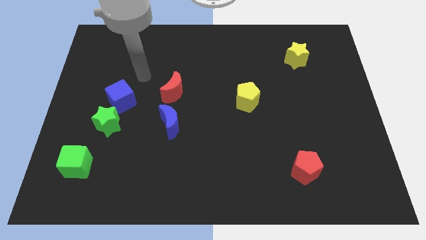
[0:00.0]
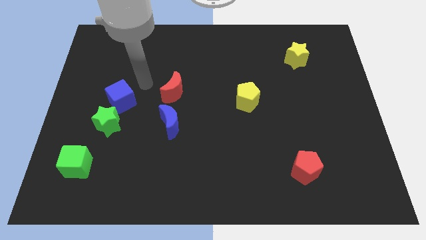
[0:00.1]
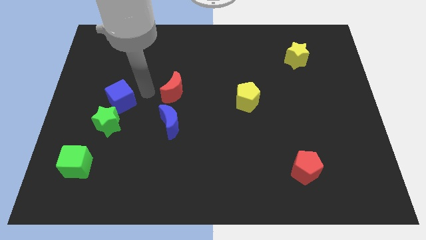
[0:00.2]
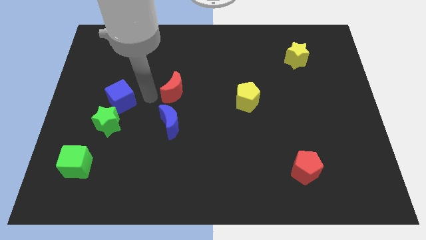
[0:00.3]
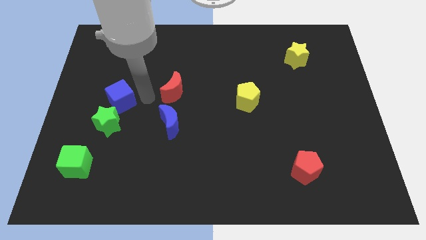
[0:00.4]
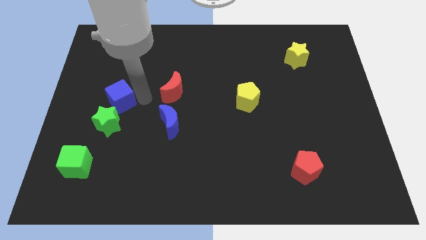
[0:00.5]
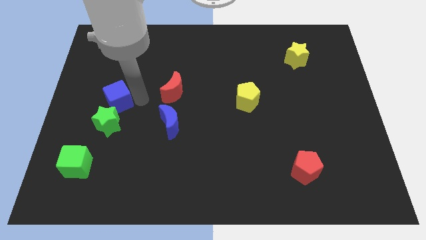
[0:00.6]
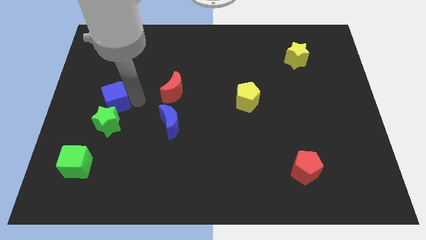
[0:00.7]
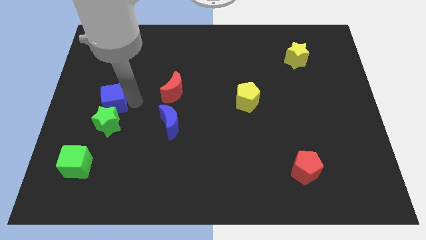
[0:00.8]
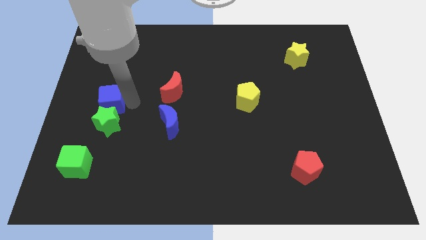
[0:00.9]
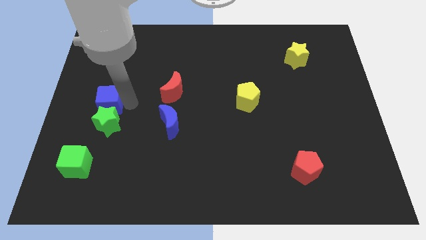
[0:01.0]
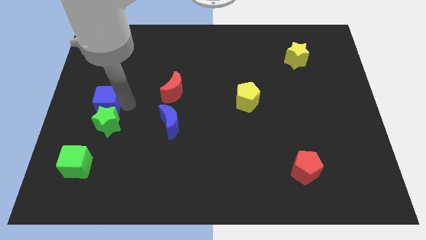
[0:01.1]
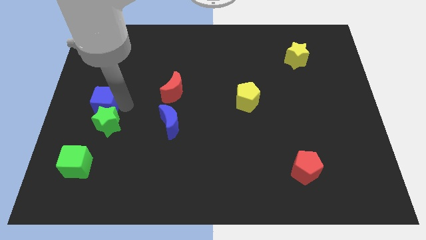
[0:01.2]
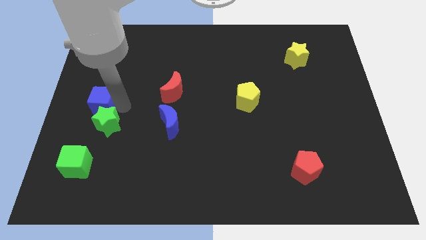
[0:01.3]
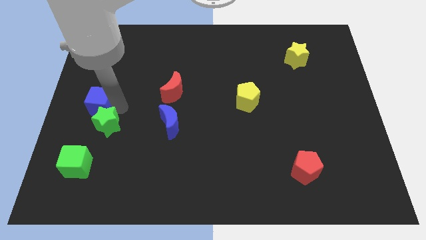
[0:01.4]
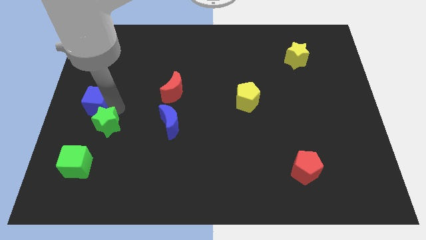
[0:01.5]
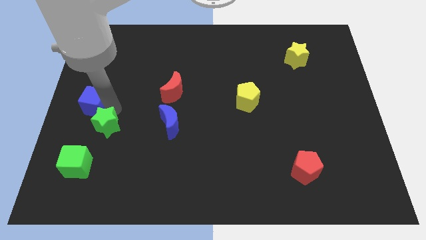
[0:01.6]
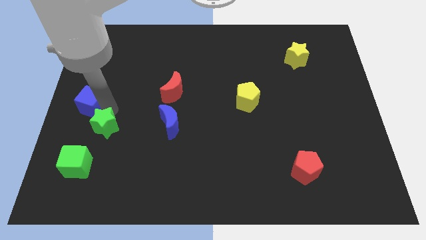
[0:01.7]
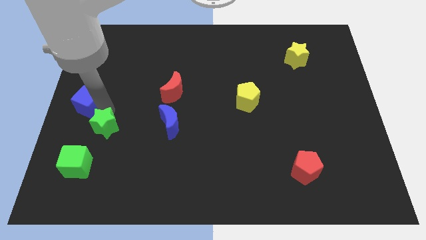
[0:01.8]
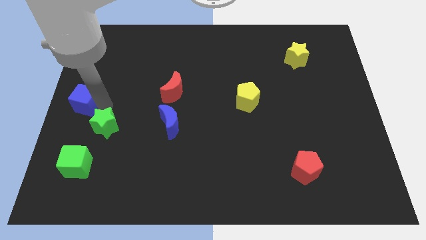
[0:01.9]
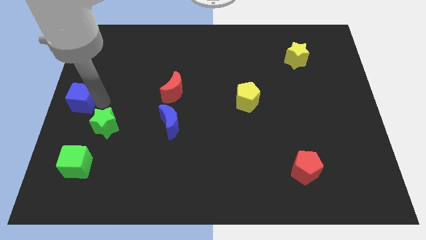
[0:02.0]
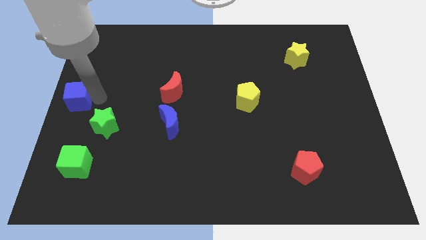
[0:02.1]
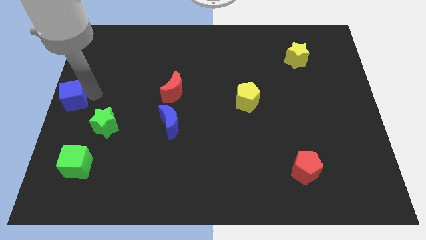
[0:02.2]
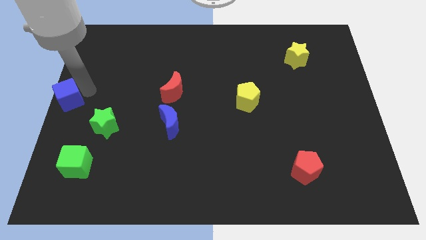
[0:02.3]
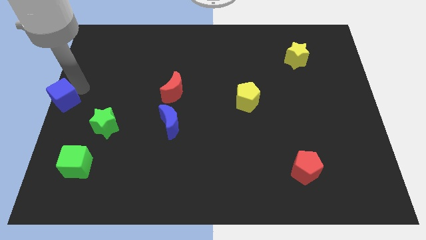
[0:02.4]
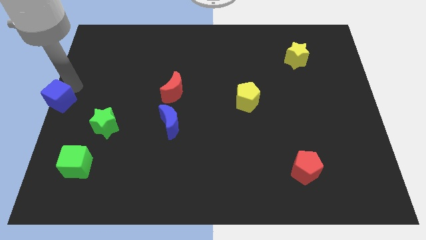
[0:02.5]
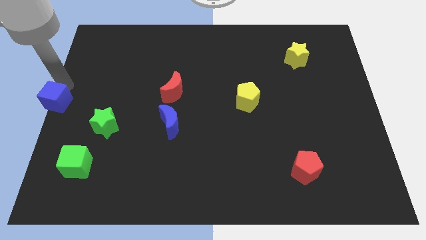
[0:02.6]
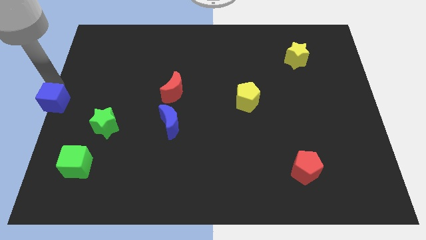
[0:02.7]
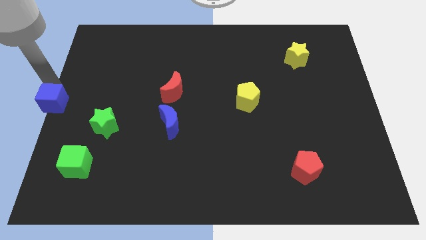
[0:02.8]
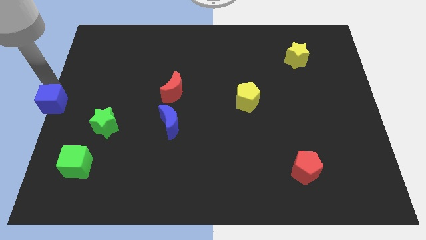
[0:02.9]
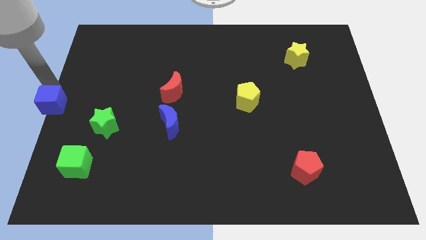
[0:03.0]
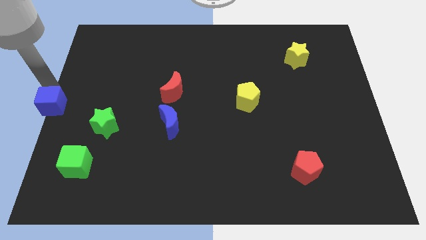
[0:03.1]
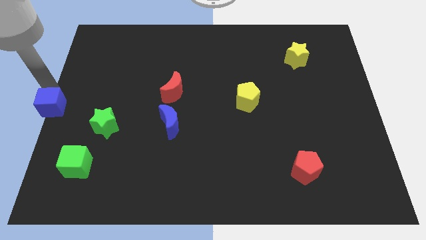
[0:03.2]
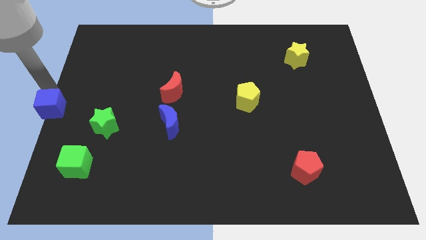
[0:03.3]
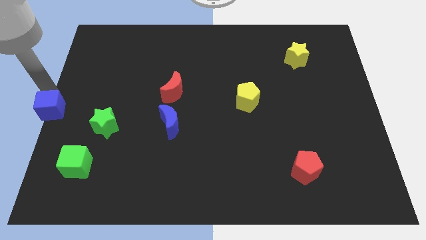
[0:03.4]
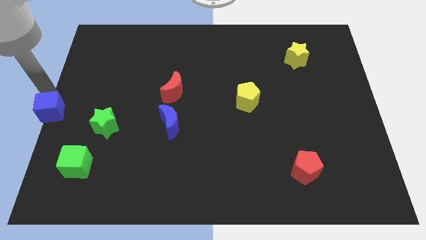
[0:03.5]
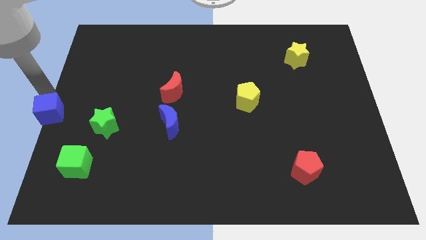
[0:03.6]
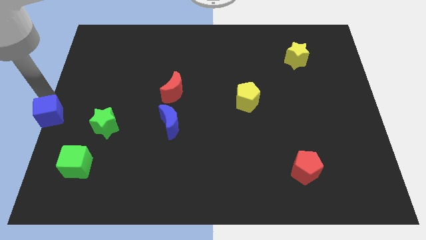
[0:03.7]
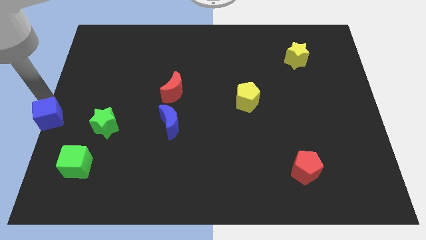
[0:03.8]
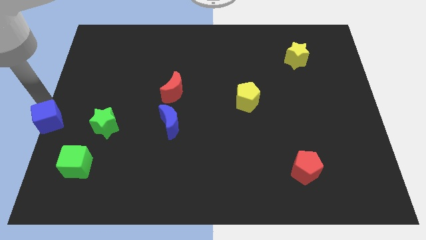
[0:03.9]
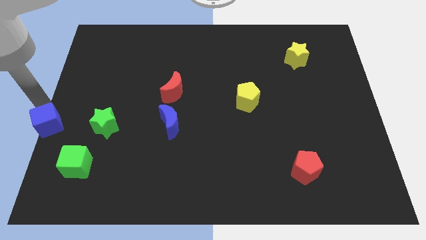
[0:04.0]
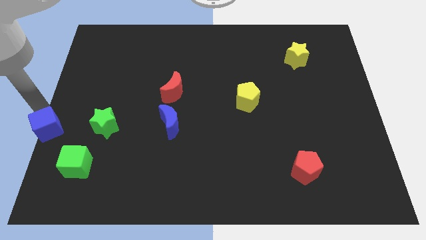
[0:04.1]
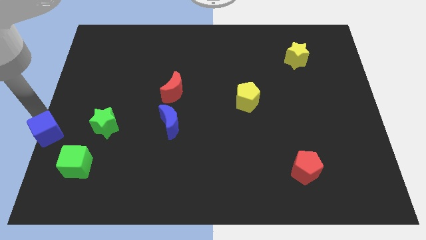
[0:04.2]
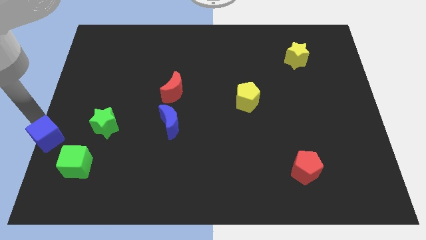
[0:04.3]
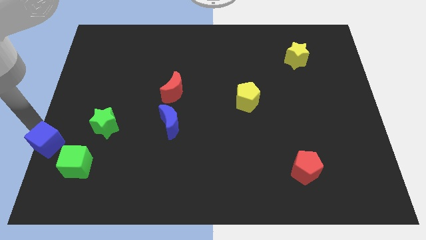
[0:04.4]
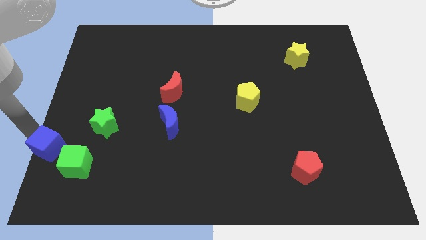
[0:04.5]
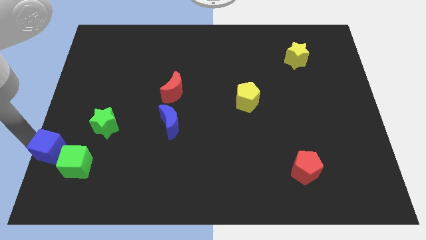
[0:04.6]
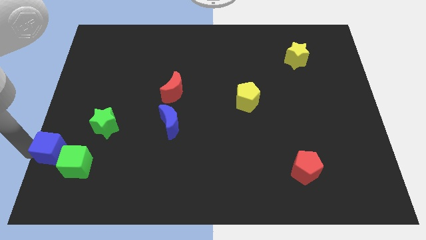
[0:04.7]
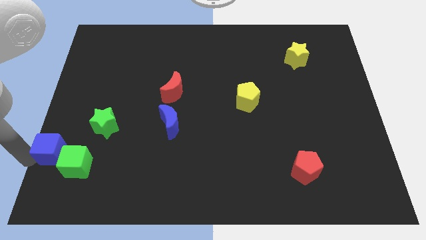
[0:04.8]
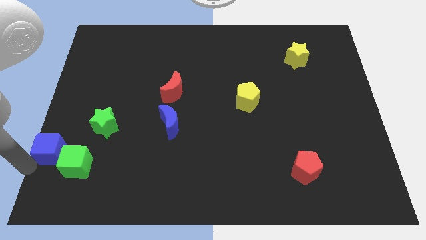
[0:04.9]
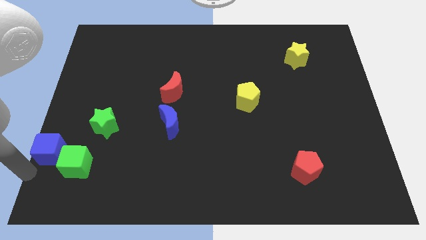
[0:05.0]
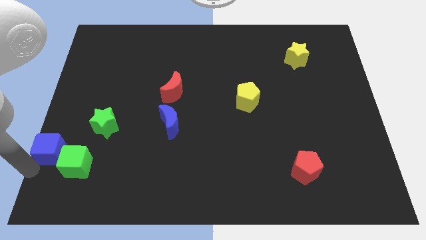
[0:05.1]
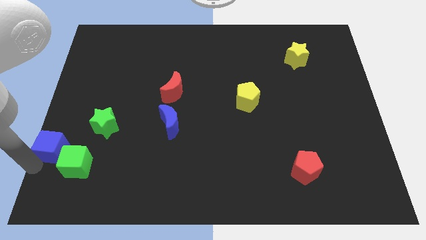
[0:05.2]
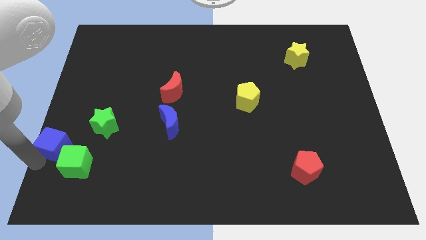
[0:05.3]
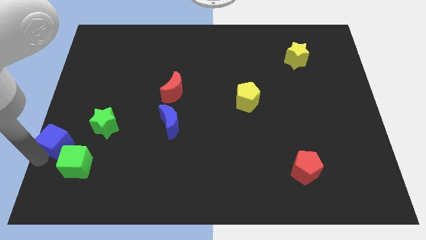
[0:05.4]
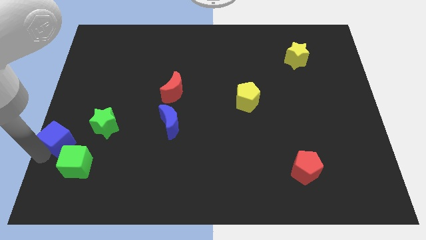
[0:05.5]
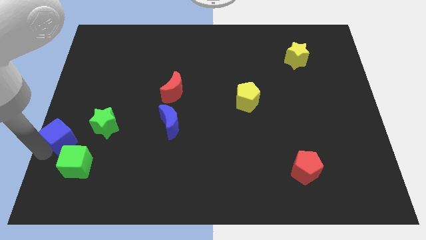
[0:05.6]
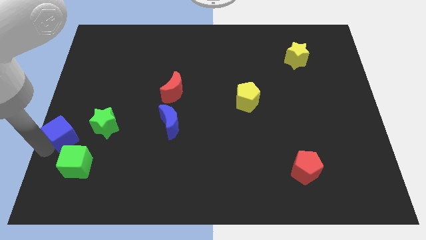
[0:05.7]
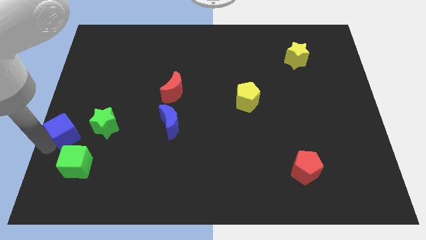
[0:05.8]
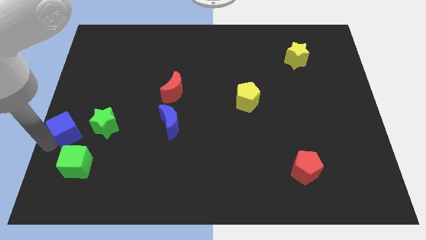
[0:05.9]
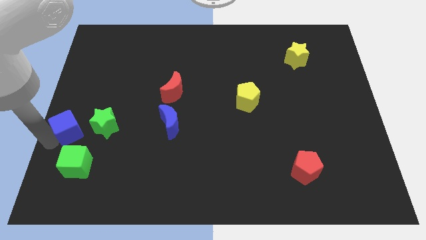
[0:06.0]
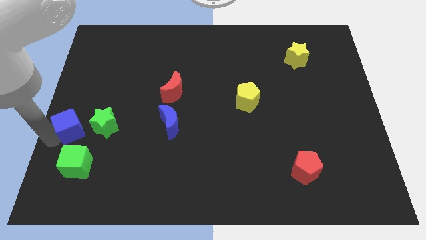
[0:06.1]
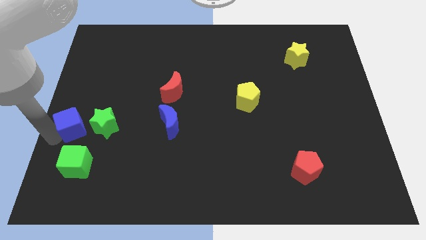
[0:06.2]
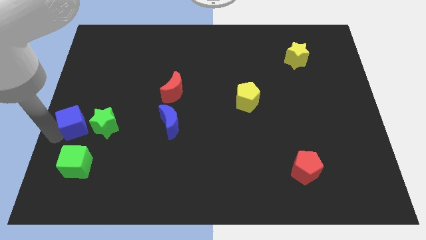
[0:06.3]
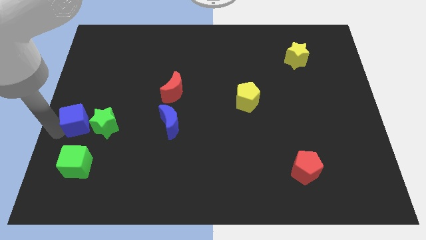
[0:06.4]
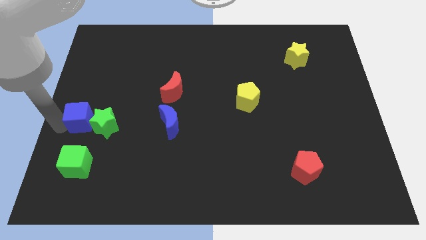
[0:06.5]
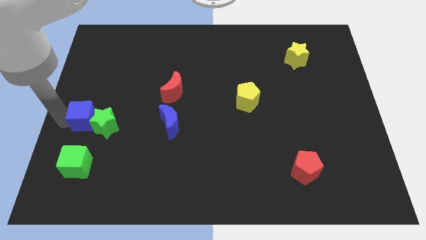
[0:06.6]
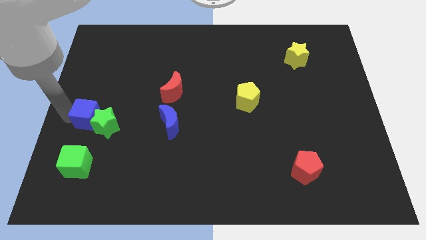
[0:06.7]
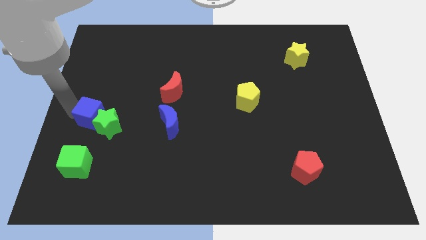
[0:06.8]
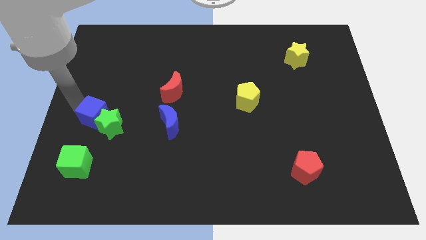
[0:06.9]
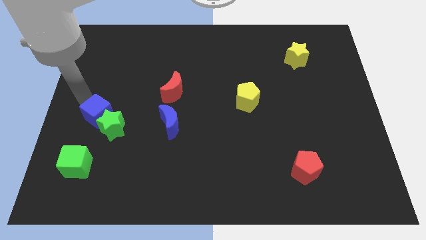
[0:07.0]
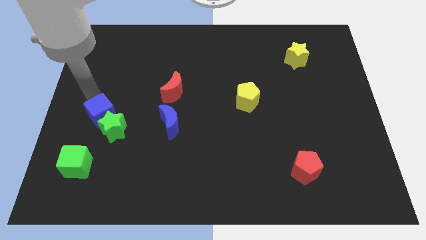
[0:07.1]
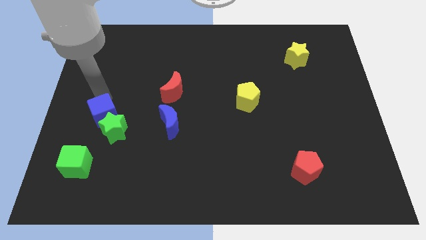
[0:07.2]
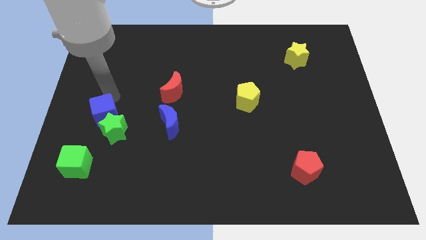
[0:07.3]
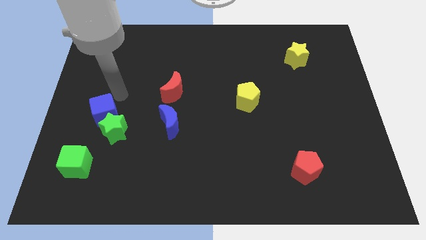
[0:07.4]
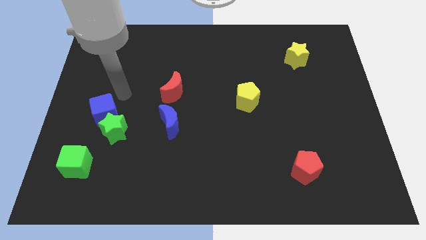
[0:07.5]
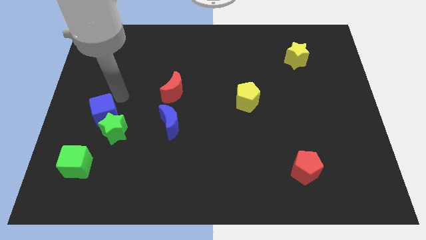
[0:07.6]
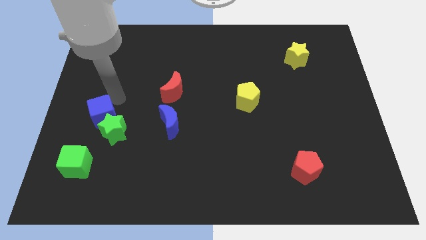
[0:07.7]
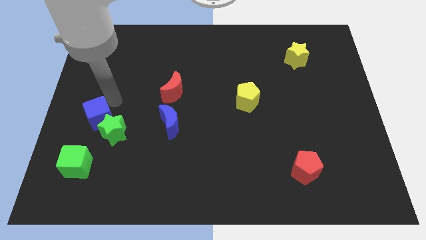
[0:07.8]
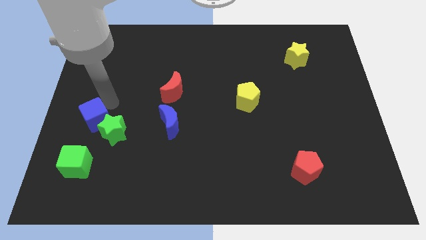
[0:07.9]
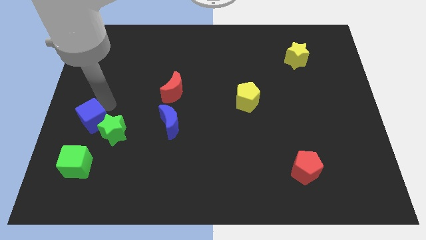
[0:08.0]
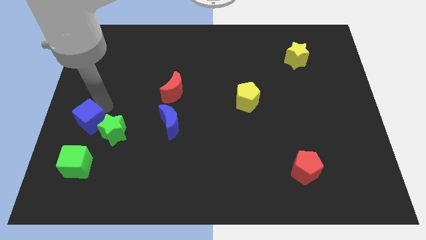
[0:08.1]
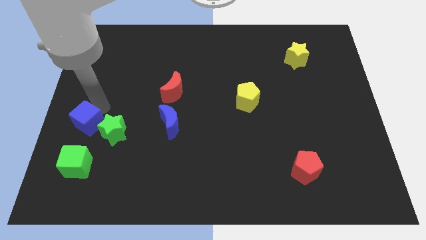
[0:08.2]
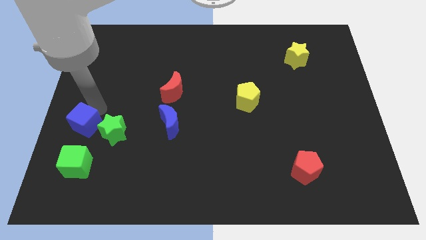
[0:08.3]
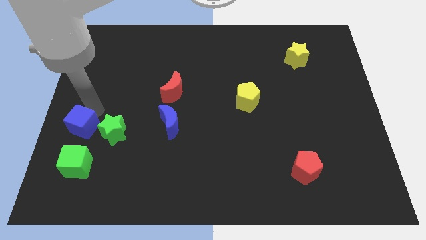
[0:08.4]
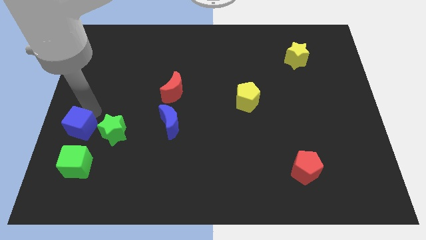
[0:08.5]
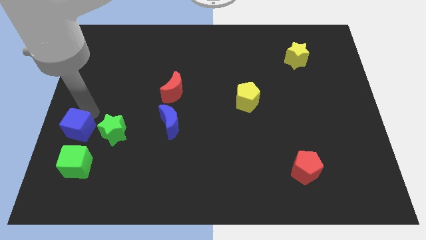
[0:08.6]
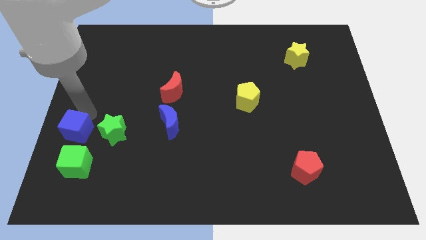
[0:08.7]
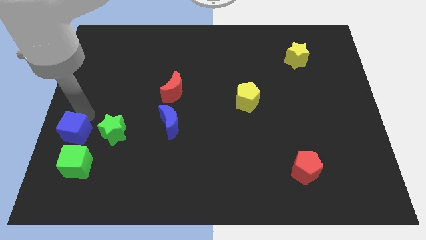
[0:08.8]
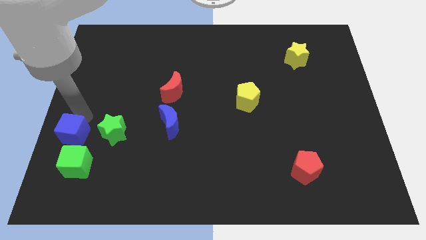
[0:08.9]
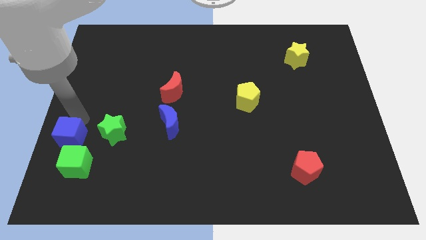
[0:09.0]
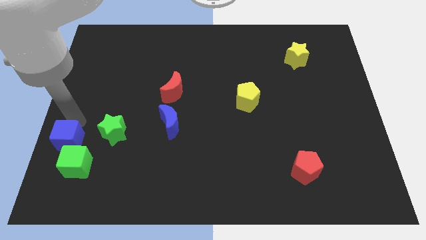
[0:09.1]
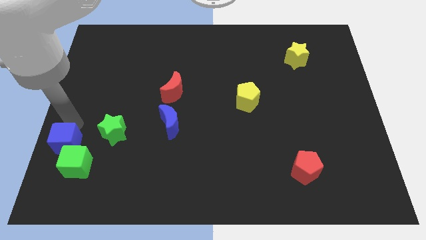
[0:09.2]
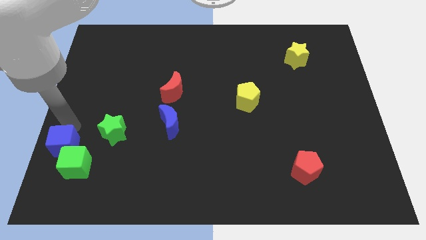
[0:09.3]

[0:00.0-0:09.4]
move the blue cube towards the green cube
